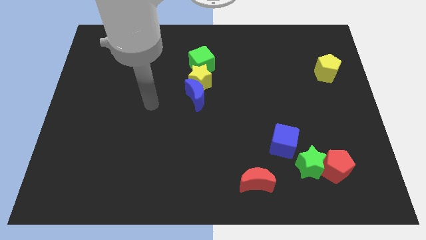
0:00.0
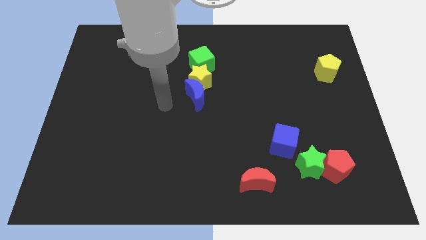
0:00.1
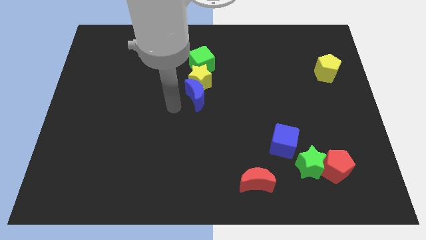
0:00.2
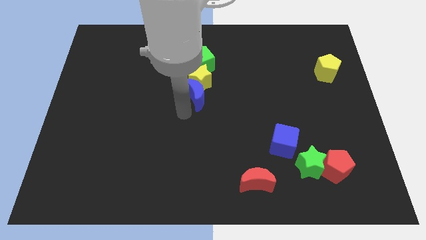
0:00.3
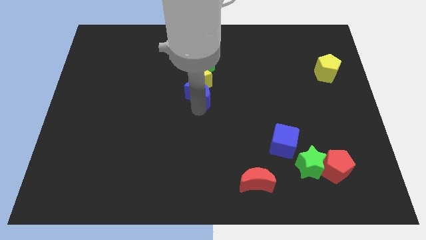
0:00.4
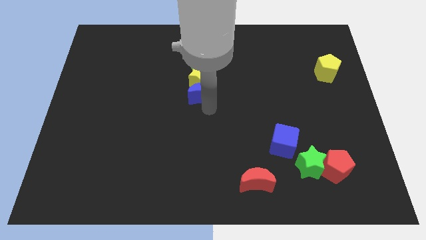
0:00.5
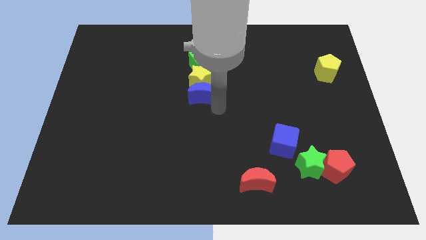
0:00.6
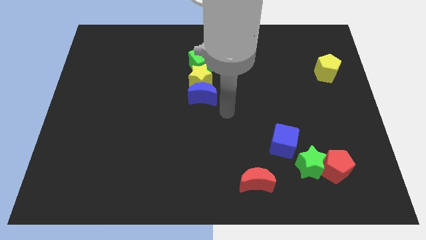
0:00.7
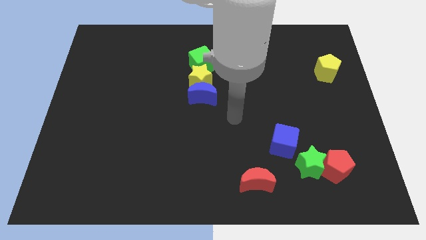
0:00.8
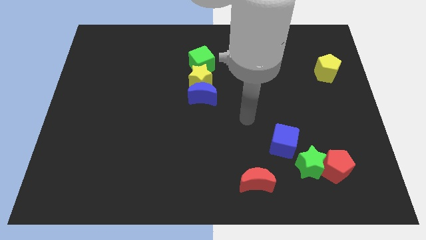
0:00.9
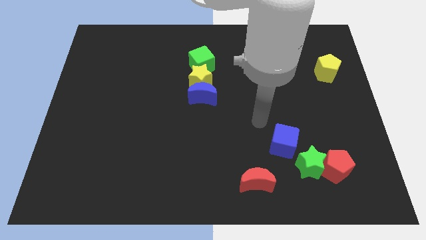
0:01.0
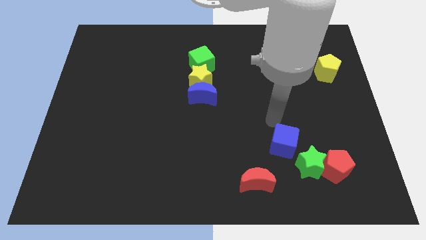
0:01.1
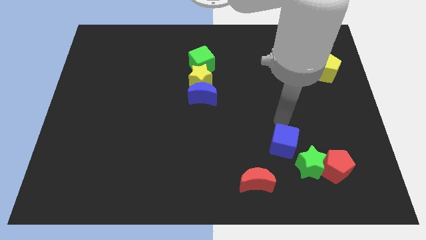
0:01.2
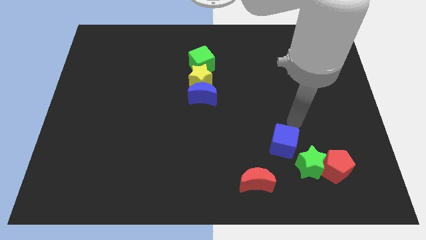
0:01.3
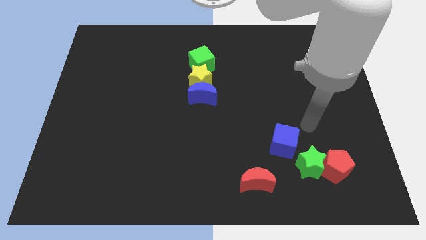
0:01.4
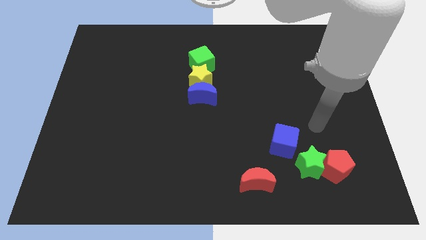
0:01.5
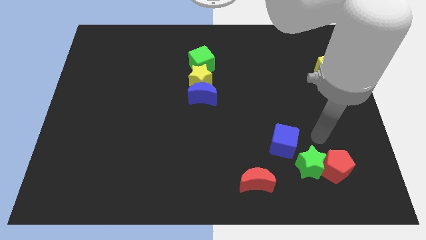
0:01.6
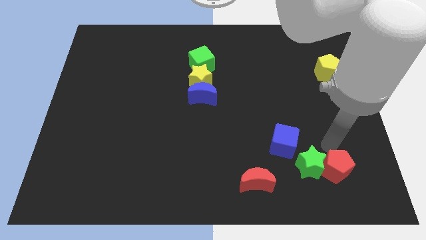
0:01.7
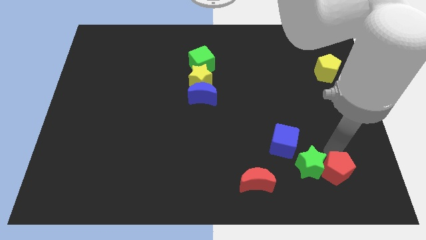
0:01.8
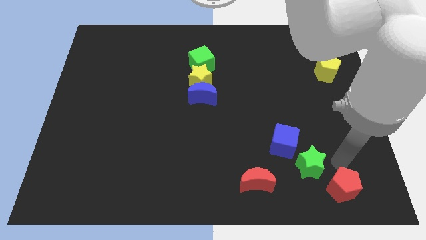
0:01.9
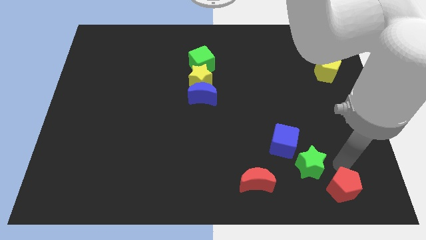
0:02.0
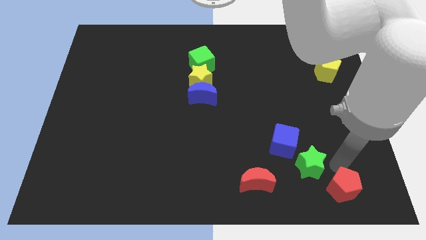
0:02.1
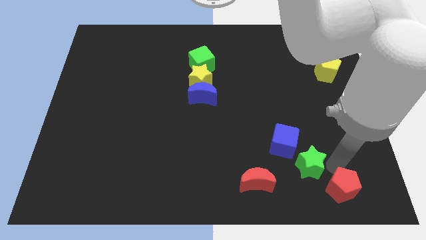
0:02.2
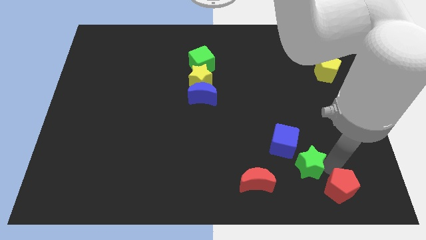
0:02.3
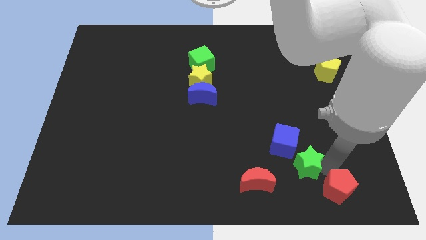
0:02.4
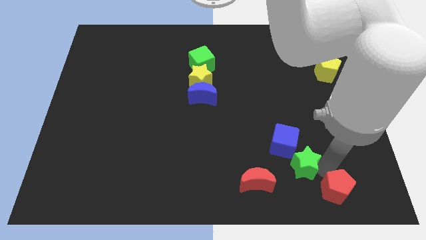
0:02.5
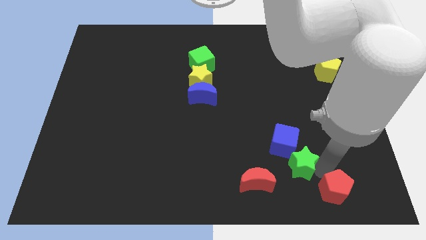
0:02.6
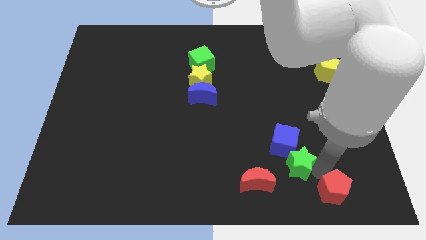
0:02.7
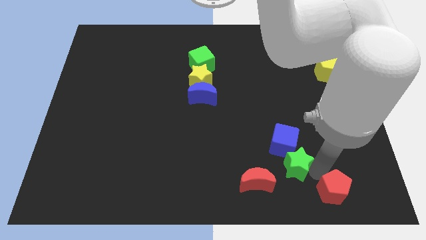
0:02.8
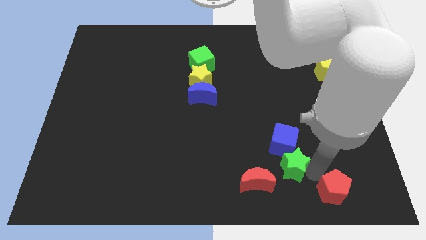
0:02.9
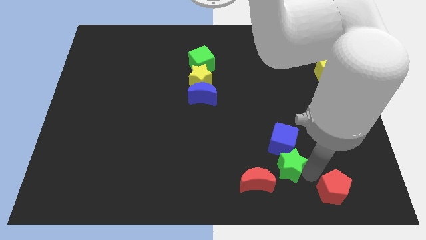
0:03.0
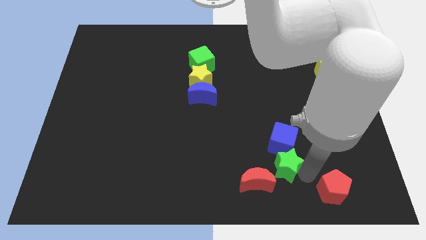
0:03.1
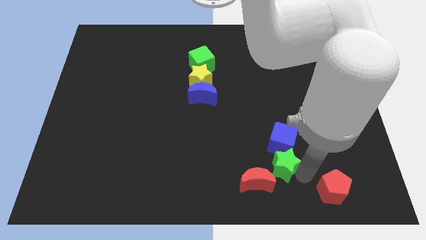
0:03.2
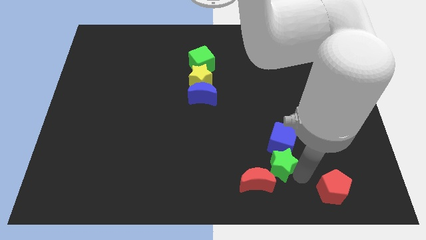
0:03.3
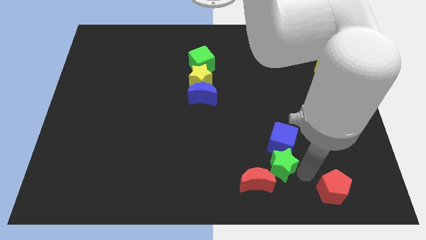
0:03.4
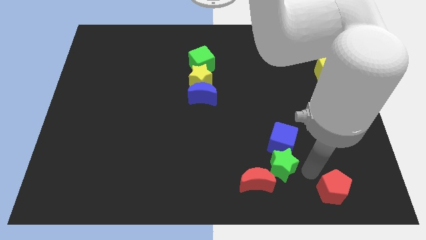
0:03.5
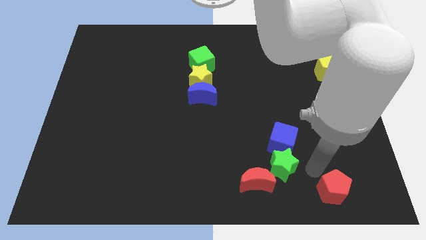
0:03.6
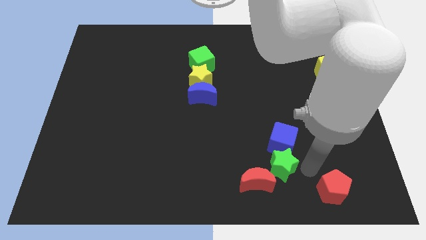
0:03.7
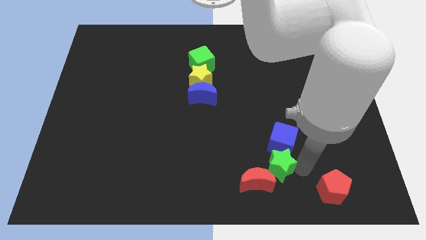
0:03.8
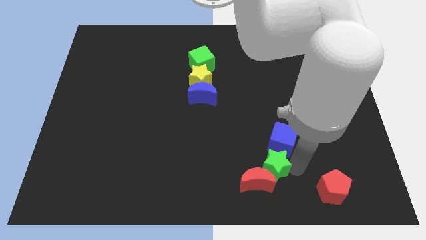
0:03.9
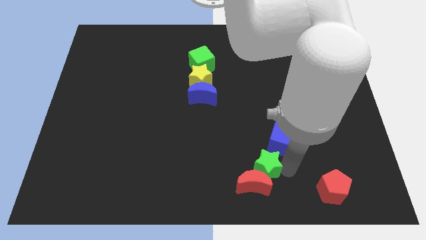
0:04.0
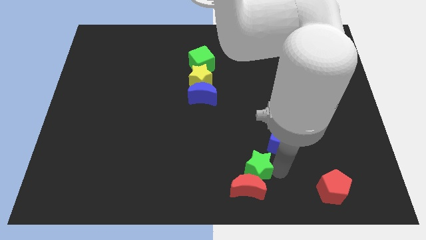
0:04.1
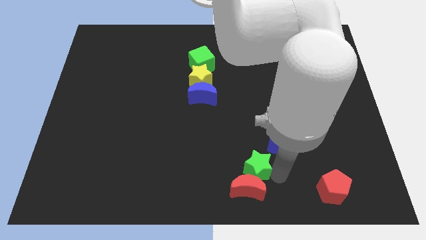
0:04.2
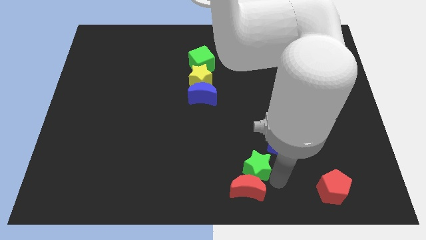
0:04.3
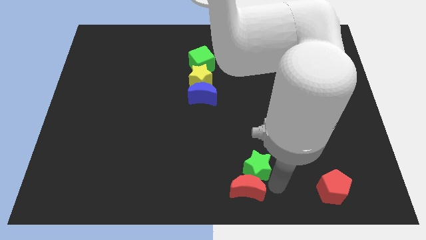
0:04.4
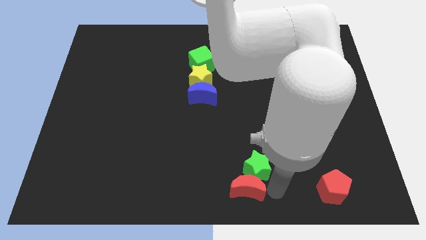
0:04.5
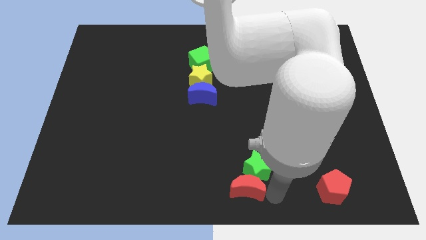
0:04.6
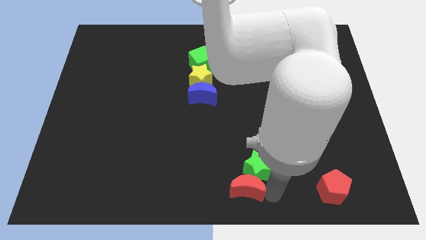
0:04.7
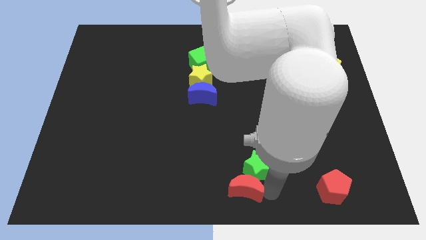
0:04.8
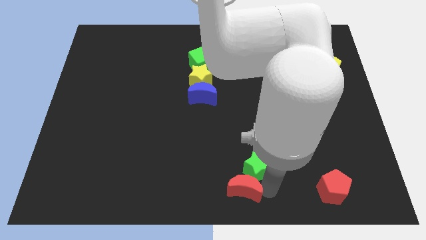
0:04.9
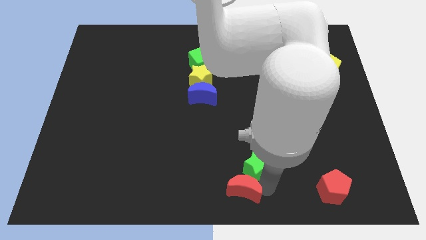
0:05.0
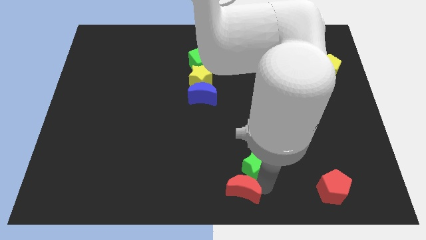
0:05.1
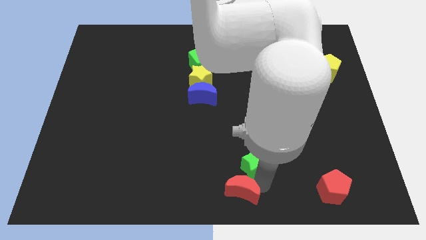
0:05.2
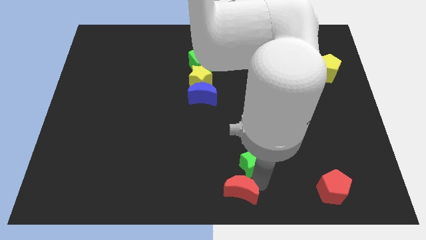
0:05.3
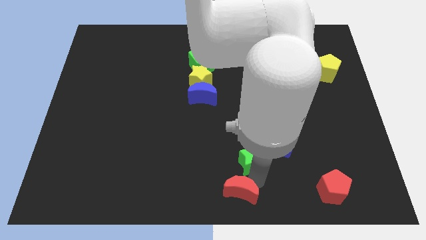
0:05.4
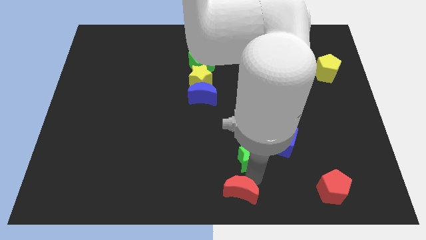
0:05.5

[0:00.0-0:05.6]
move the green star to the left of the blue cube

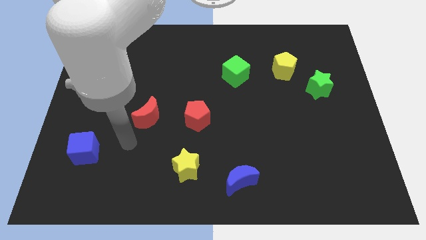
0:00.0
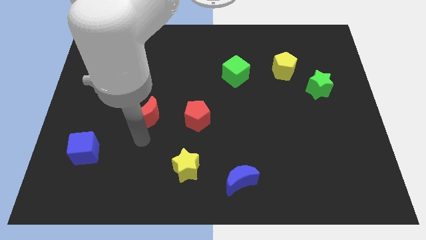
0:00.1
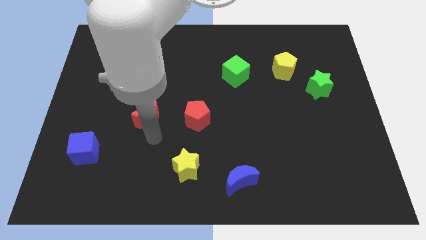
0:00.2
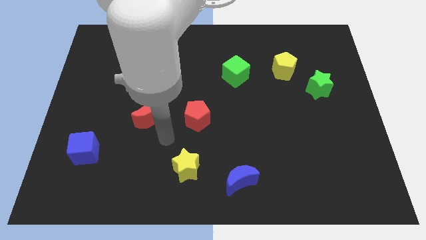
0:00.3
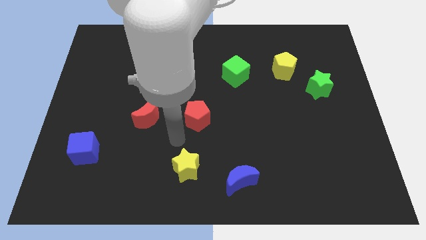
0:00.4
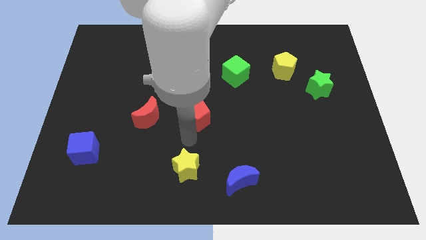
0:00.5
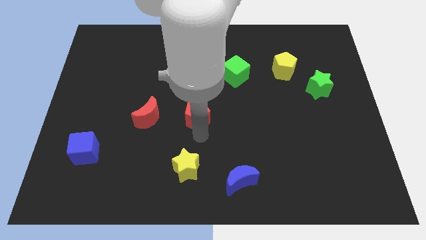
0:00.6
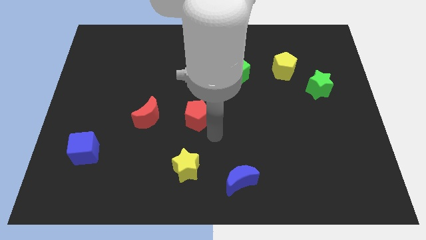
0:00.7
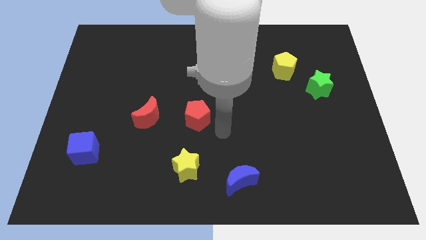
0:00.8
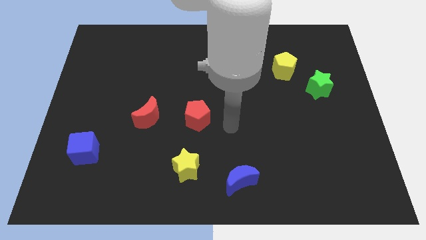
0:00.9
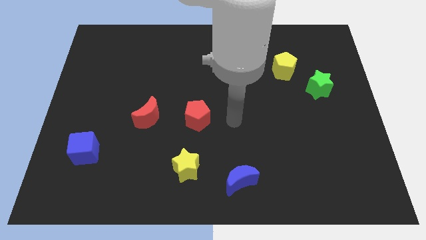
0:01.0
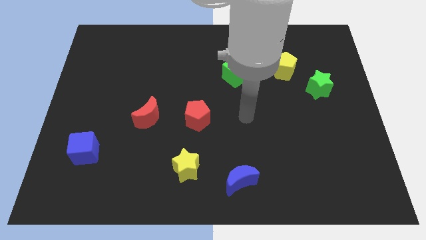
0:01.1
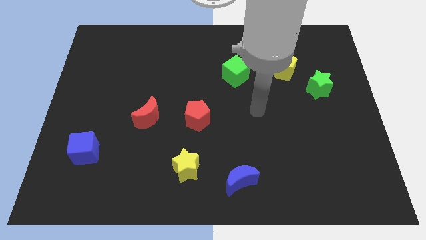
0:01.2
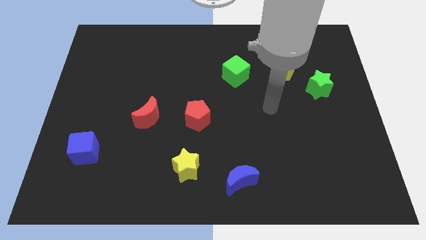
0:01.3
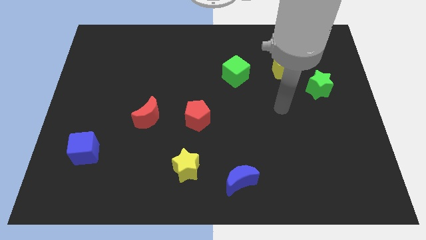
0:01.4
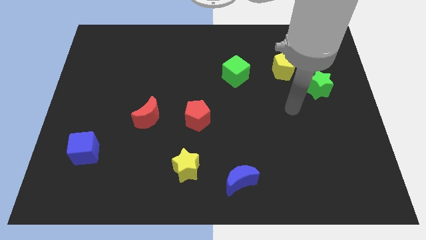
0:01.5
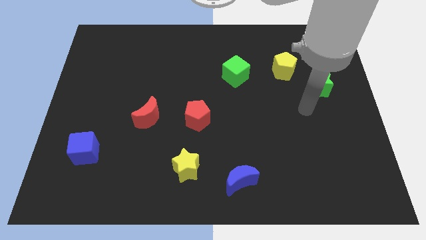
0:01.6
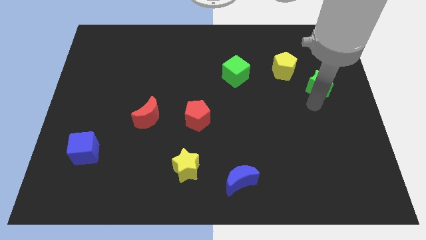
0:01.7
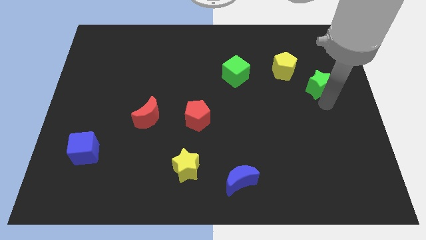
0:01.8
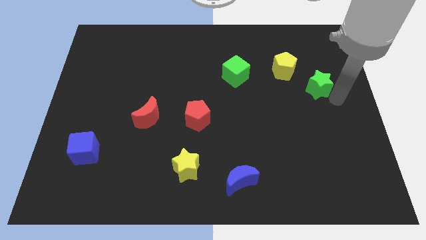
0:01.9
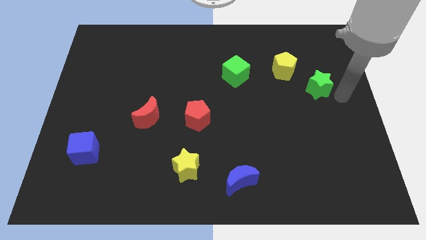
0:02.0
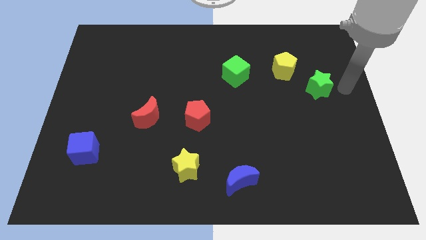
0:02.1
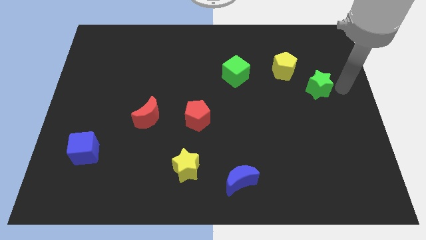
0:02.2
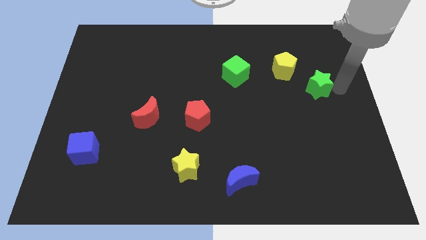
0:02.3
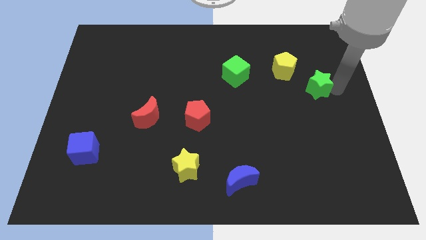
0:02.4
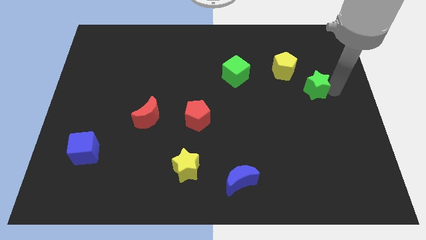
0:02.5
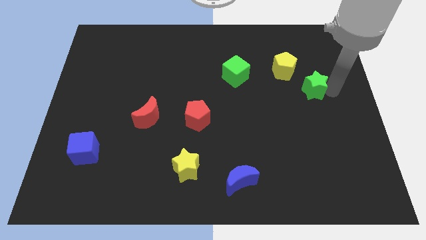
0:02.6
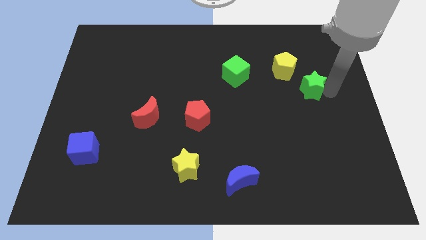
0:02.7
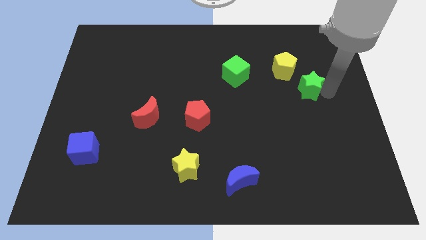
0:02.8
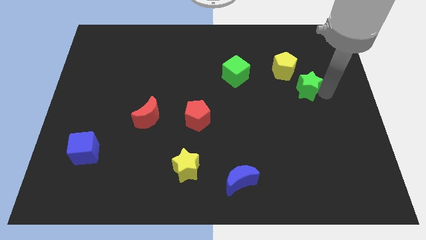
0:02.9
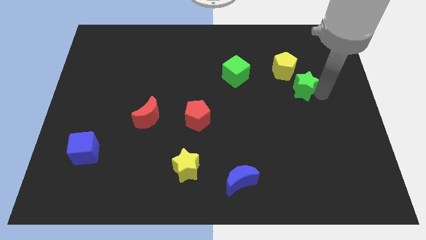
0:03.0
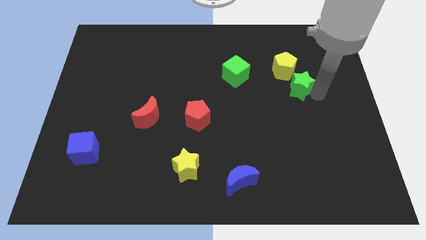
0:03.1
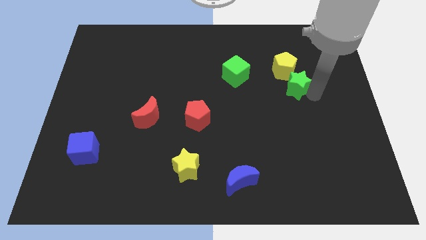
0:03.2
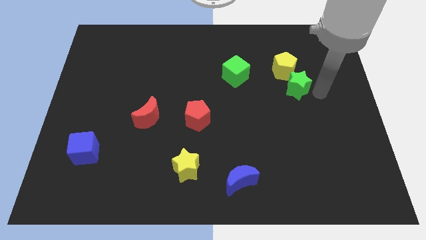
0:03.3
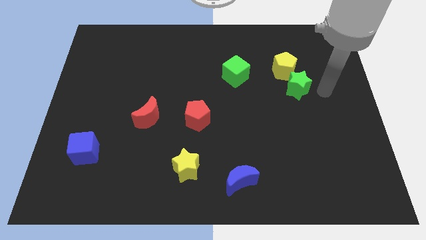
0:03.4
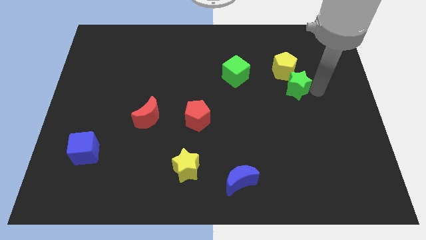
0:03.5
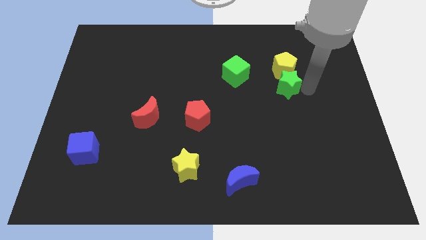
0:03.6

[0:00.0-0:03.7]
slide the green star diagonally down and to the left of the yellow pentagon
